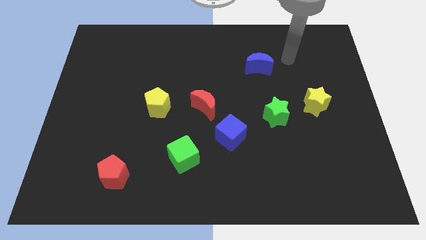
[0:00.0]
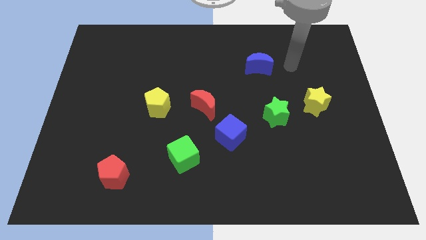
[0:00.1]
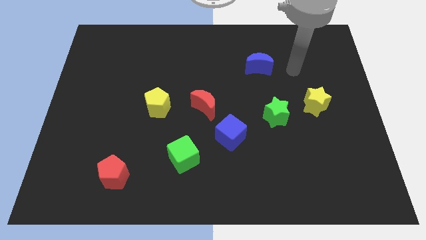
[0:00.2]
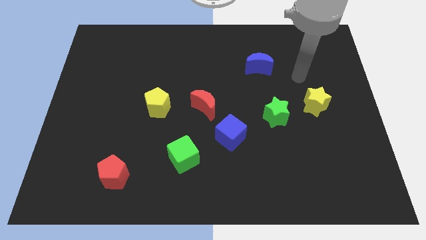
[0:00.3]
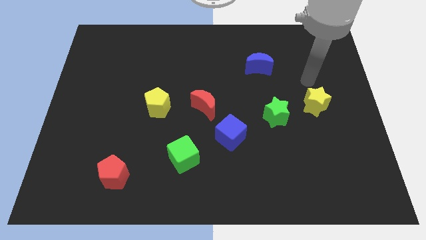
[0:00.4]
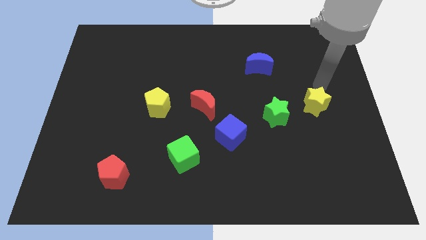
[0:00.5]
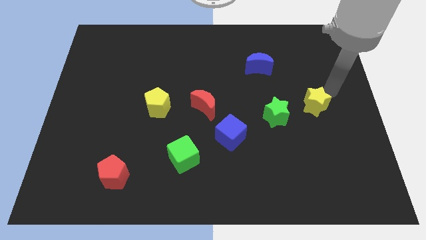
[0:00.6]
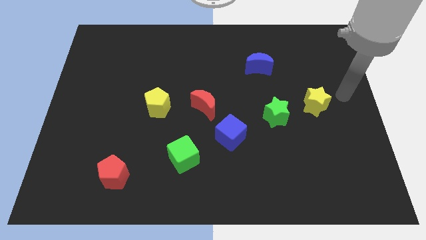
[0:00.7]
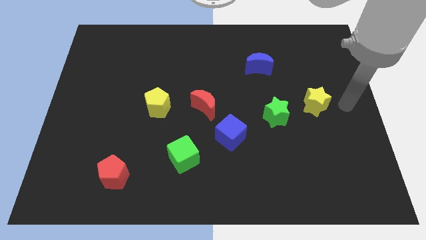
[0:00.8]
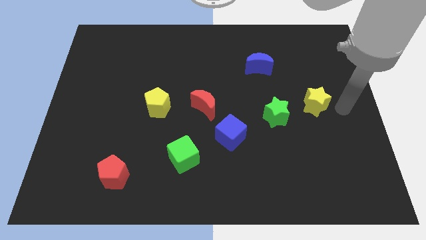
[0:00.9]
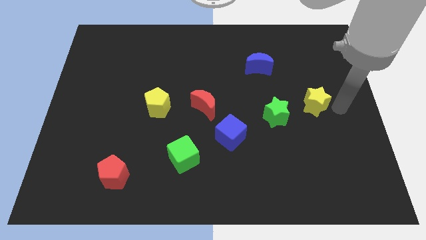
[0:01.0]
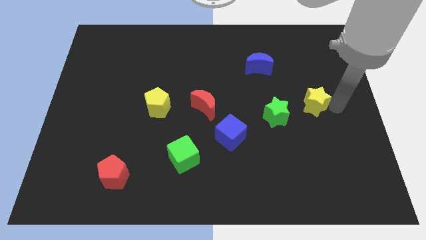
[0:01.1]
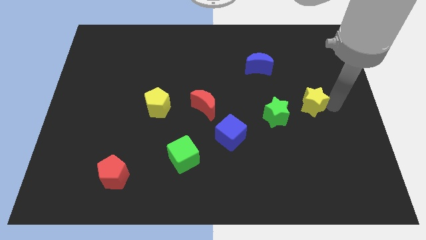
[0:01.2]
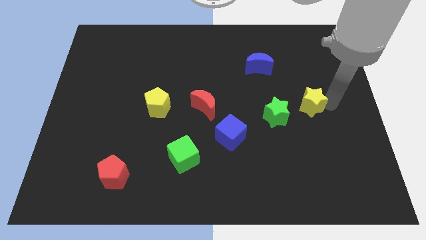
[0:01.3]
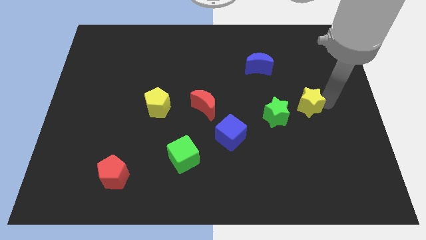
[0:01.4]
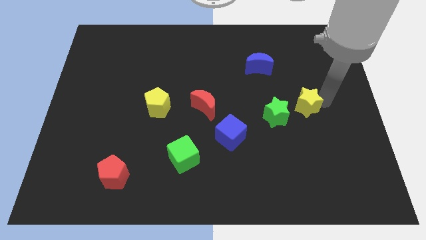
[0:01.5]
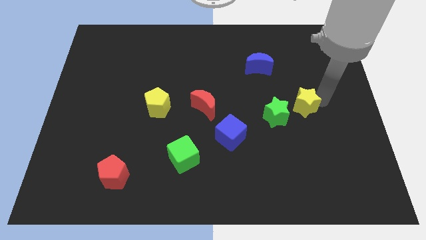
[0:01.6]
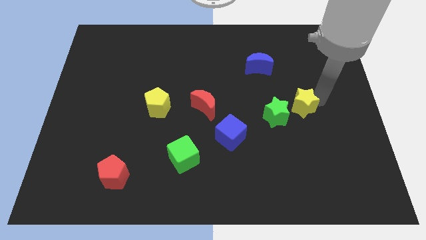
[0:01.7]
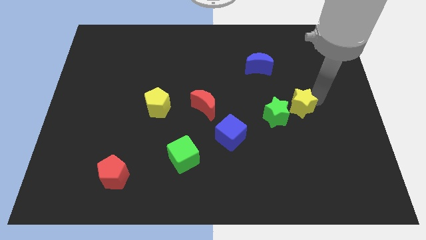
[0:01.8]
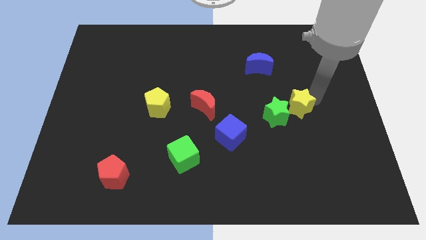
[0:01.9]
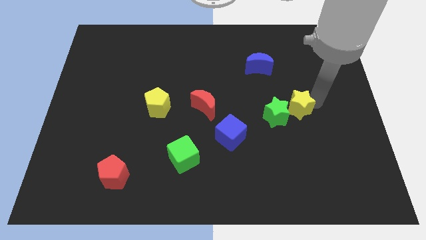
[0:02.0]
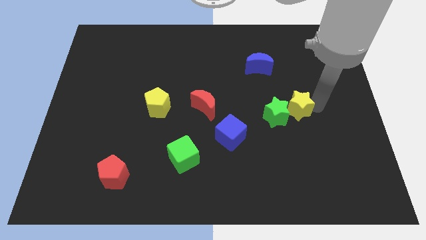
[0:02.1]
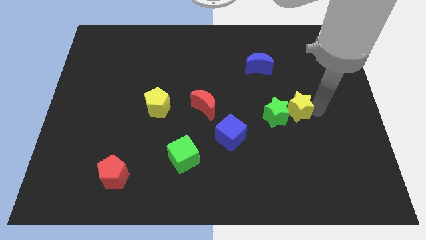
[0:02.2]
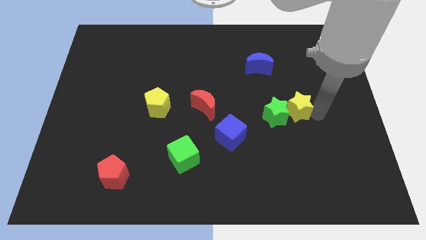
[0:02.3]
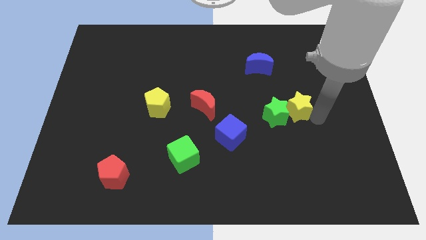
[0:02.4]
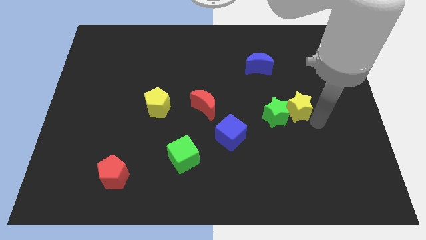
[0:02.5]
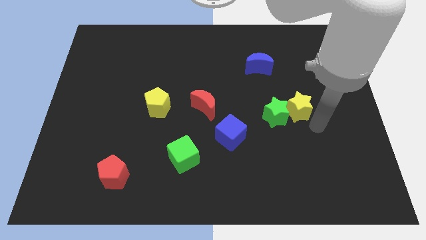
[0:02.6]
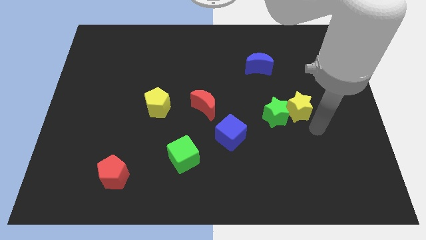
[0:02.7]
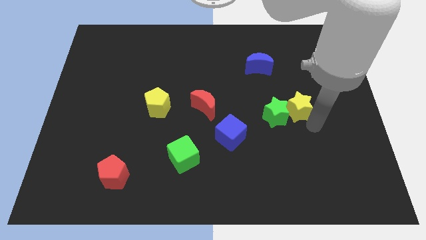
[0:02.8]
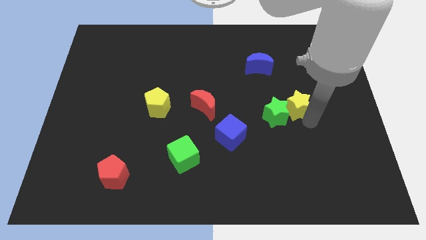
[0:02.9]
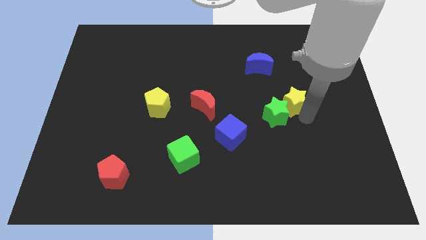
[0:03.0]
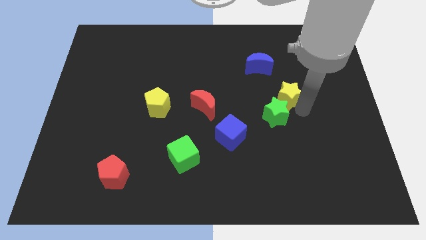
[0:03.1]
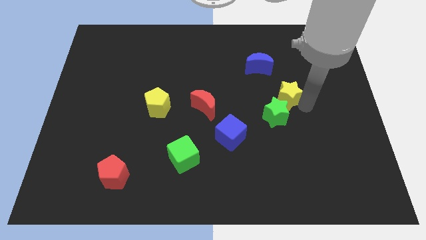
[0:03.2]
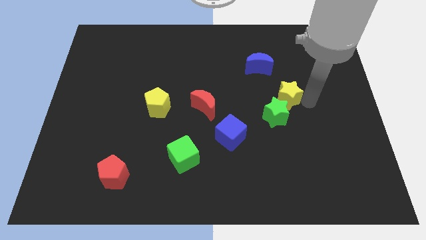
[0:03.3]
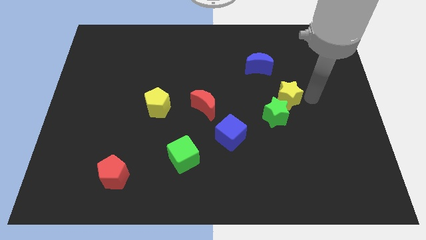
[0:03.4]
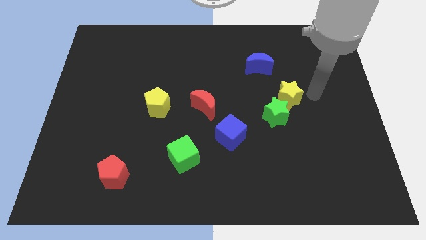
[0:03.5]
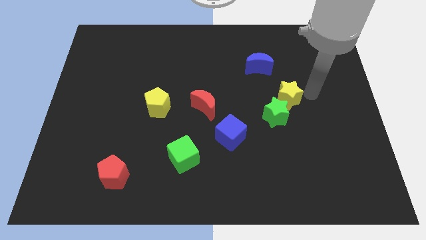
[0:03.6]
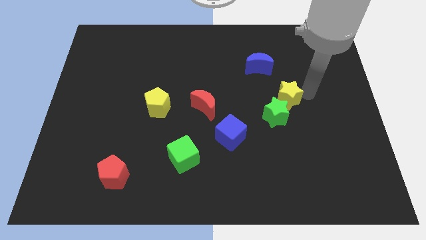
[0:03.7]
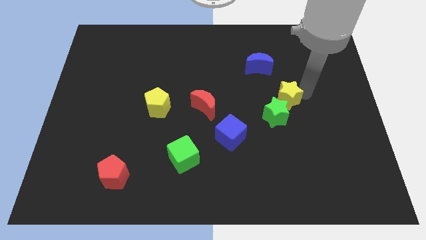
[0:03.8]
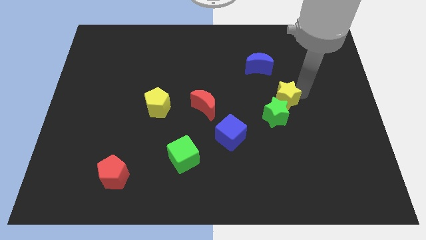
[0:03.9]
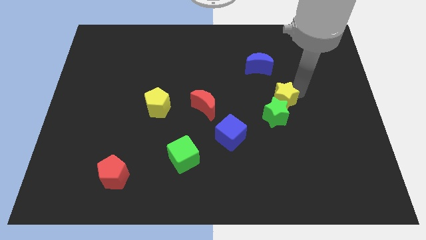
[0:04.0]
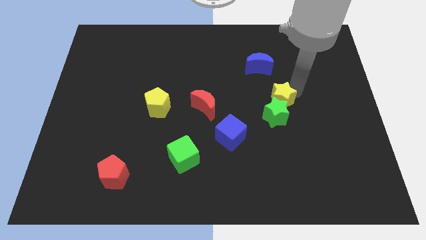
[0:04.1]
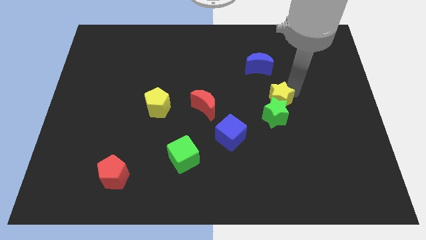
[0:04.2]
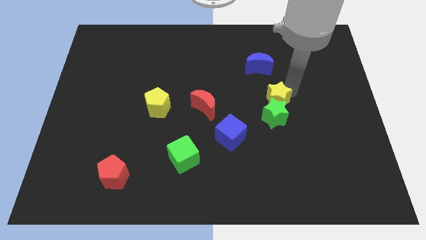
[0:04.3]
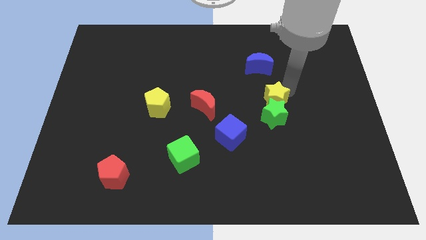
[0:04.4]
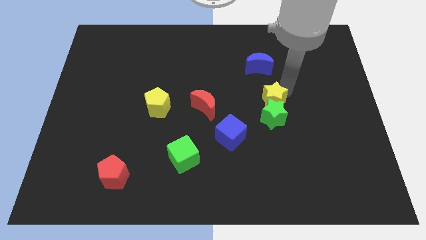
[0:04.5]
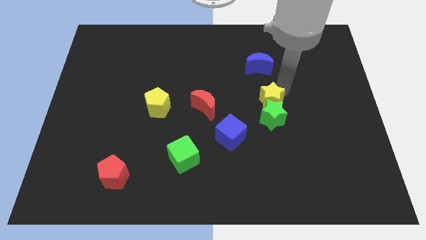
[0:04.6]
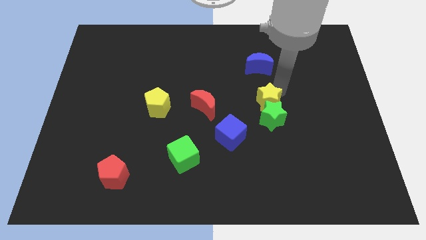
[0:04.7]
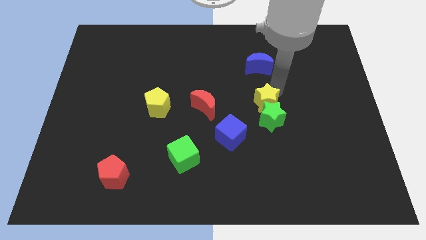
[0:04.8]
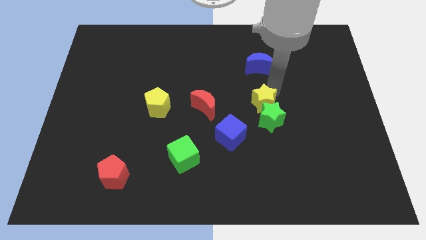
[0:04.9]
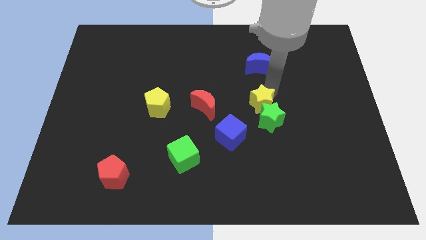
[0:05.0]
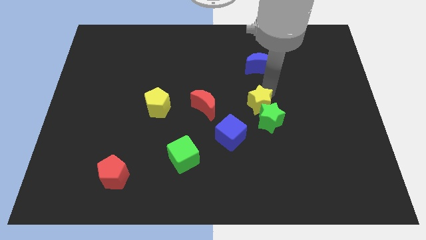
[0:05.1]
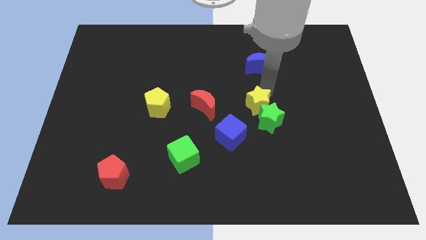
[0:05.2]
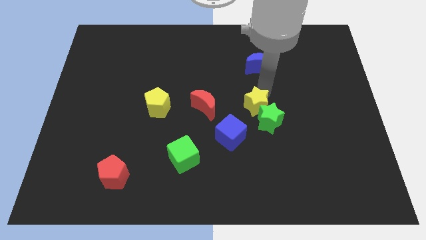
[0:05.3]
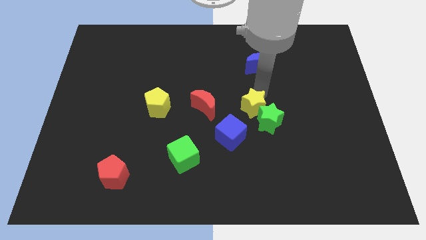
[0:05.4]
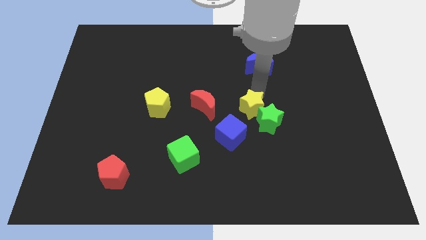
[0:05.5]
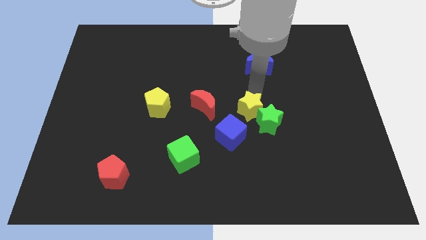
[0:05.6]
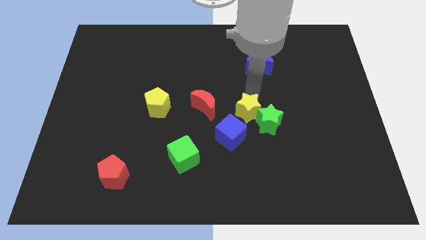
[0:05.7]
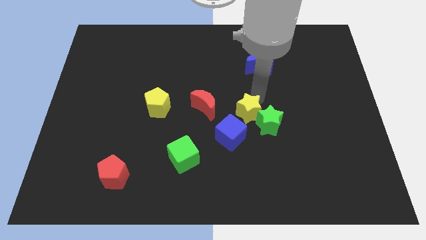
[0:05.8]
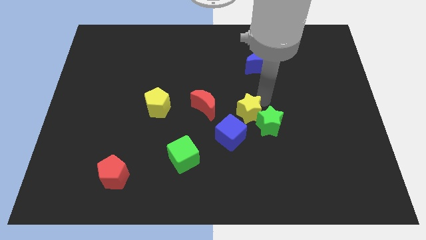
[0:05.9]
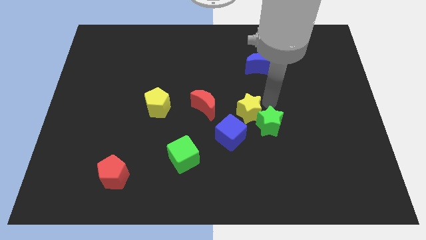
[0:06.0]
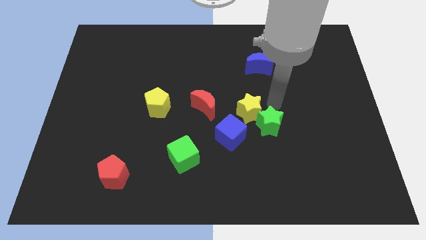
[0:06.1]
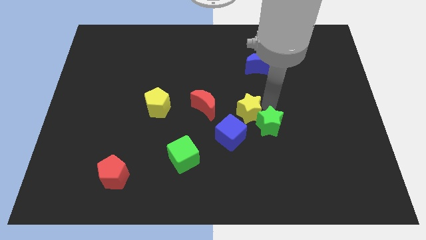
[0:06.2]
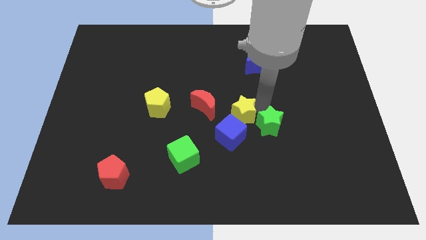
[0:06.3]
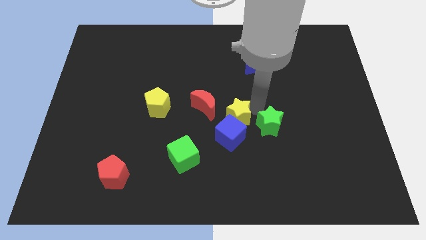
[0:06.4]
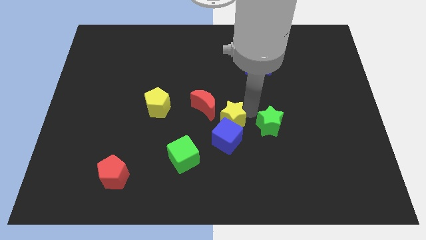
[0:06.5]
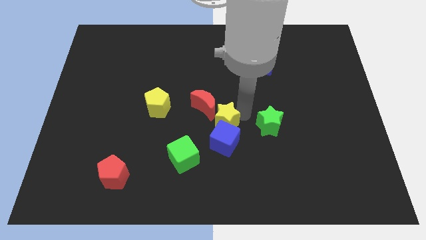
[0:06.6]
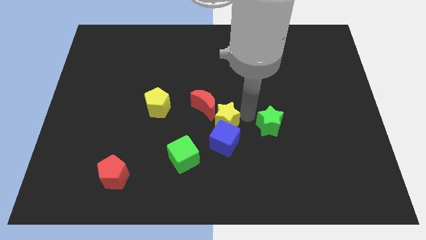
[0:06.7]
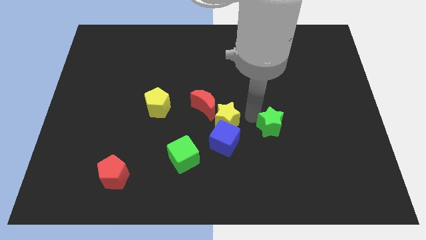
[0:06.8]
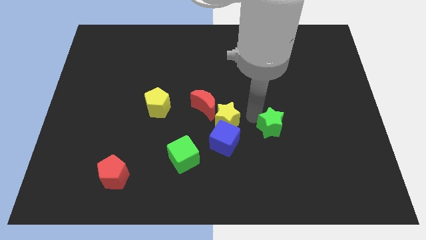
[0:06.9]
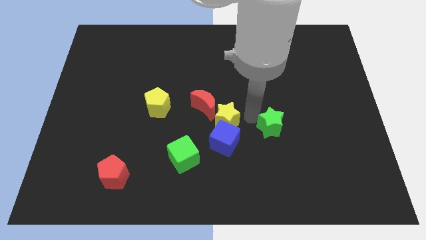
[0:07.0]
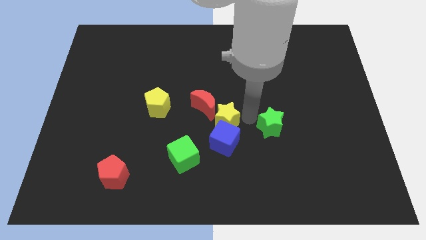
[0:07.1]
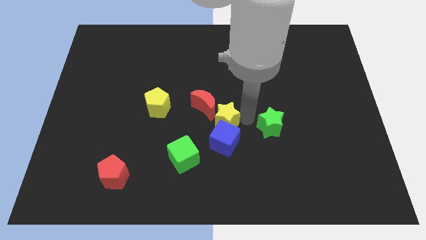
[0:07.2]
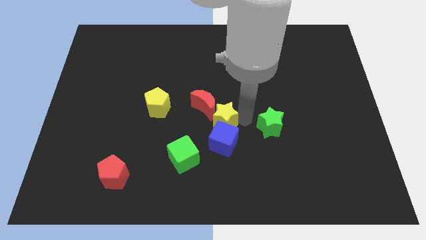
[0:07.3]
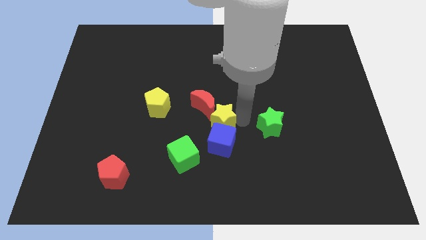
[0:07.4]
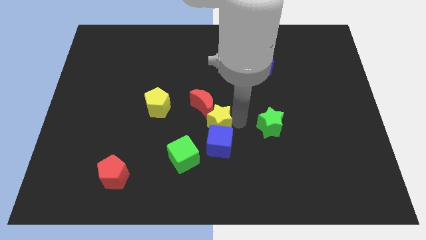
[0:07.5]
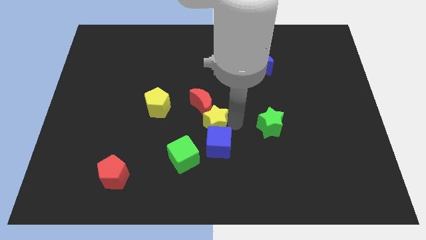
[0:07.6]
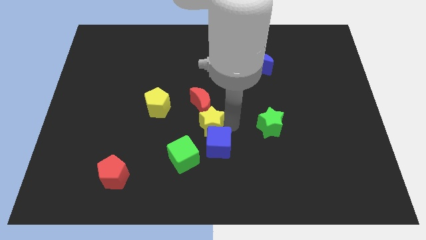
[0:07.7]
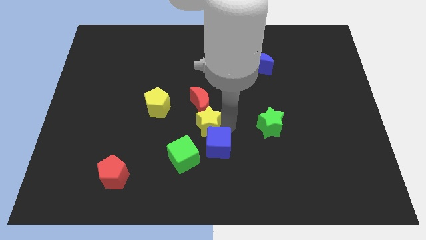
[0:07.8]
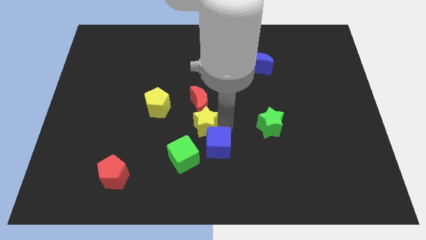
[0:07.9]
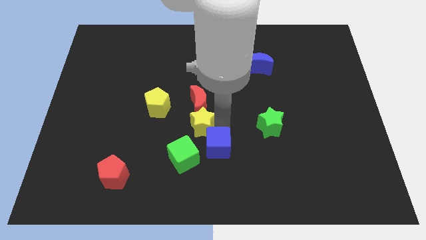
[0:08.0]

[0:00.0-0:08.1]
move the yellow star to the bottom right side of the yellow pentagon
